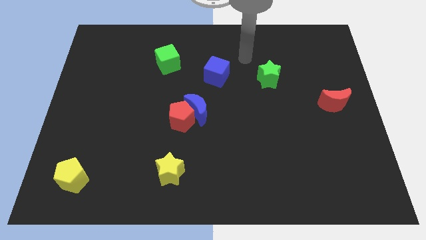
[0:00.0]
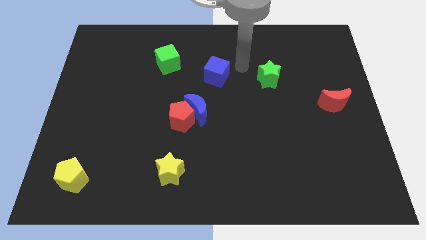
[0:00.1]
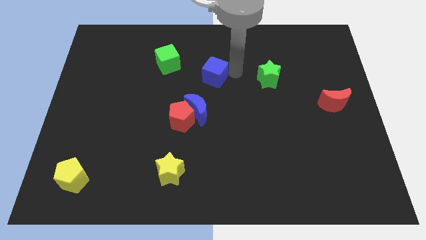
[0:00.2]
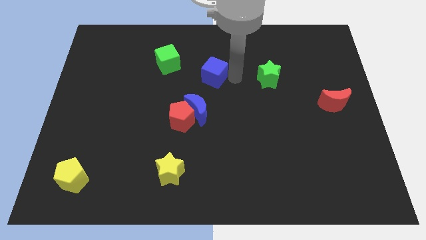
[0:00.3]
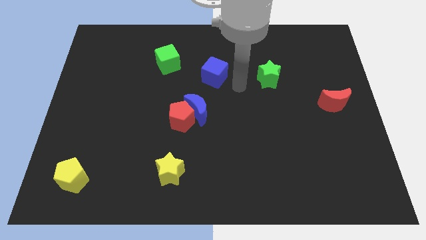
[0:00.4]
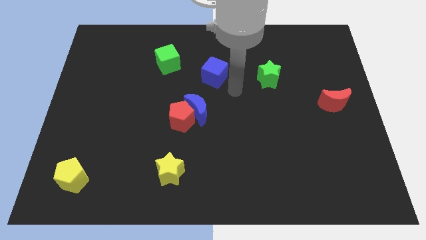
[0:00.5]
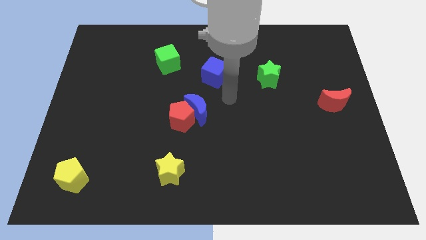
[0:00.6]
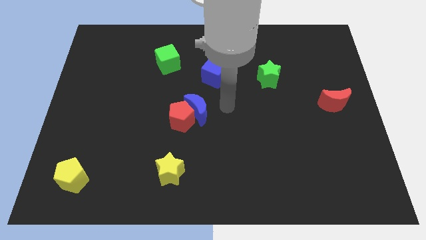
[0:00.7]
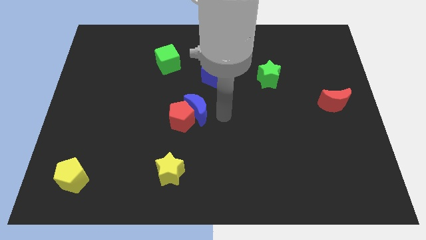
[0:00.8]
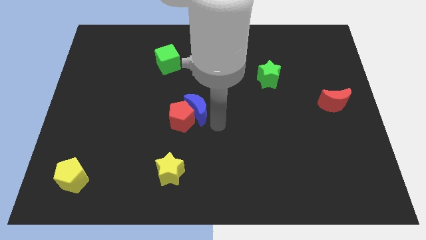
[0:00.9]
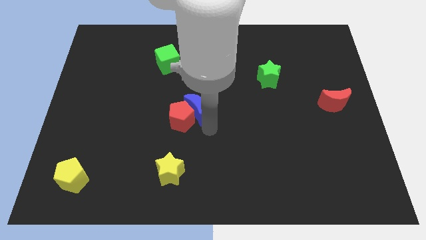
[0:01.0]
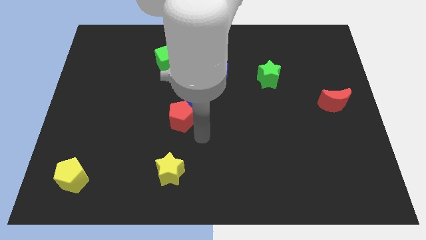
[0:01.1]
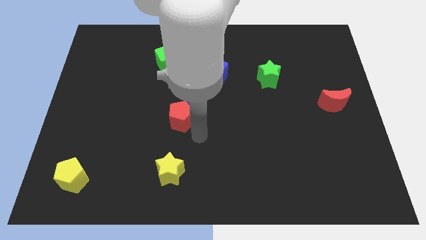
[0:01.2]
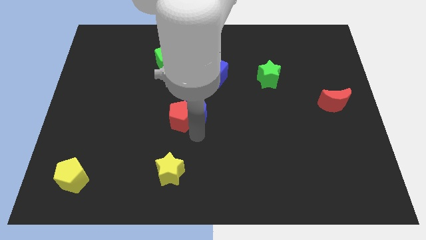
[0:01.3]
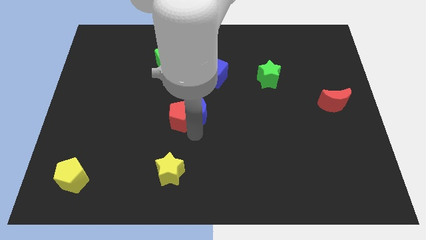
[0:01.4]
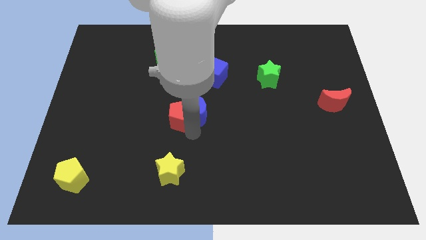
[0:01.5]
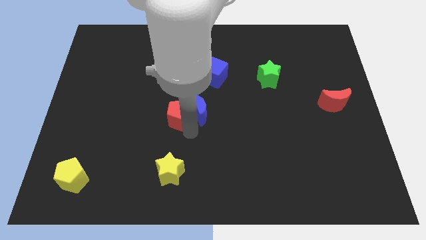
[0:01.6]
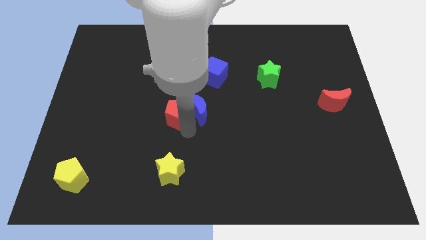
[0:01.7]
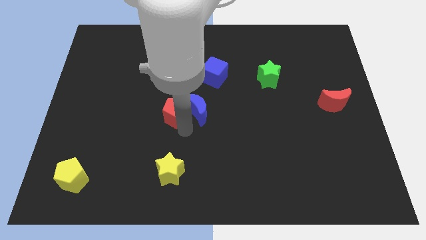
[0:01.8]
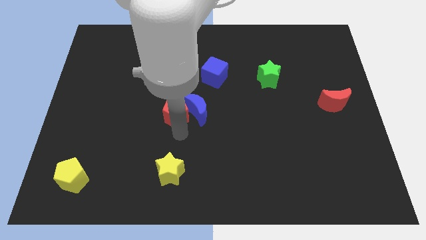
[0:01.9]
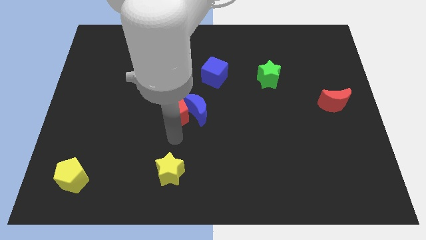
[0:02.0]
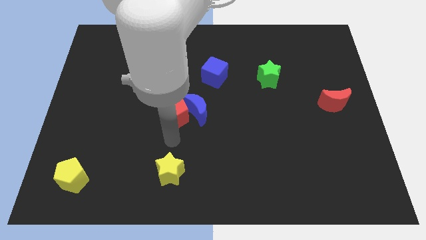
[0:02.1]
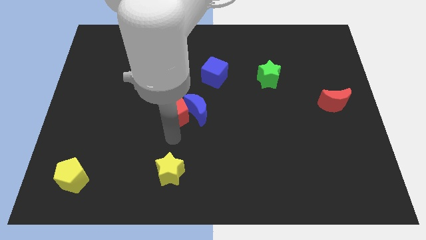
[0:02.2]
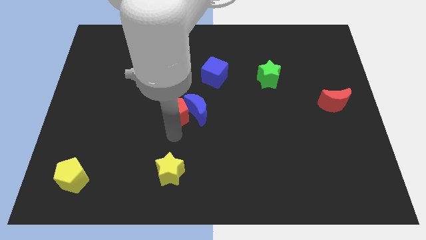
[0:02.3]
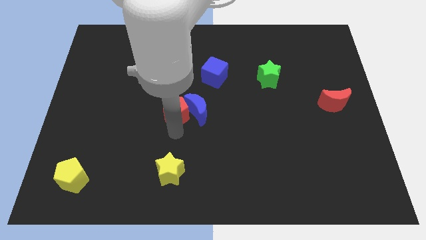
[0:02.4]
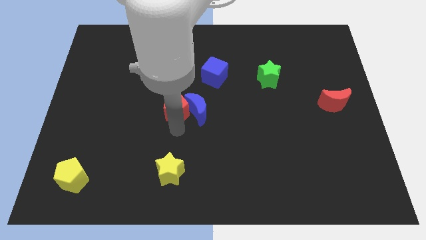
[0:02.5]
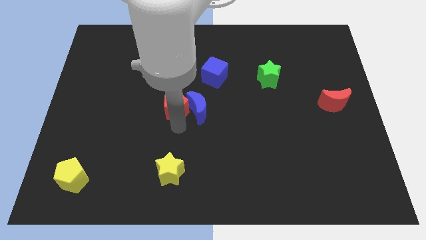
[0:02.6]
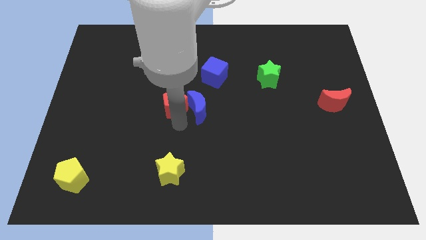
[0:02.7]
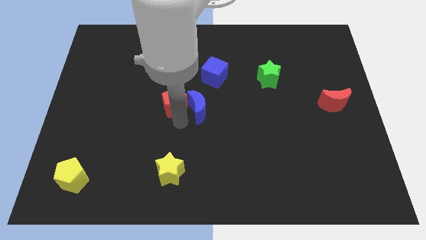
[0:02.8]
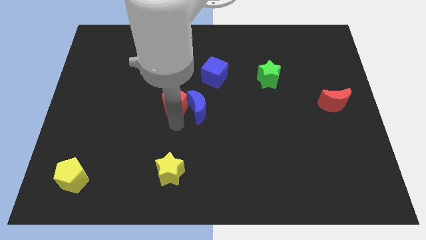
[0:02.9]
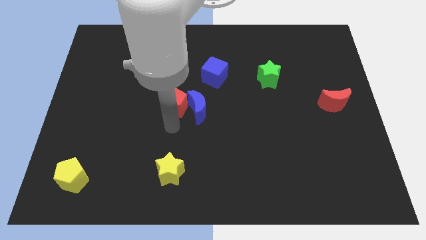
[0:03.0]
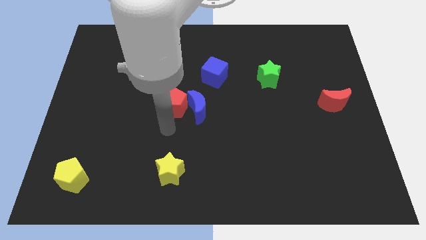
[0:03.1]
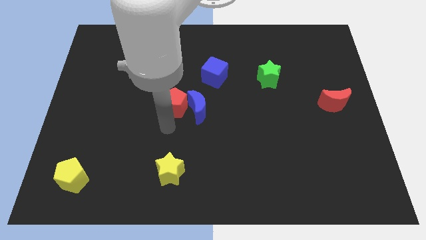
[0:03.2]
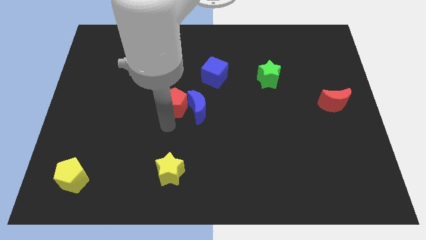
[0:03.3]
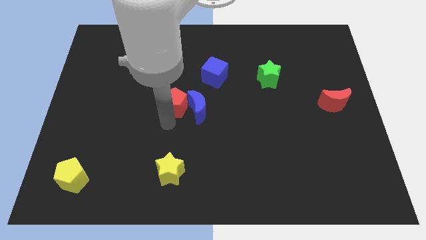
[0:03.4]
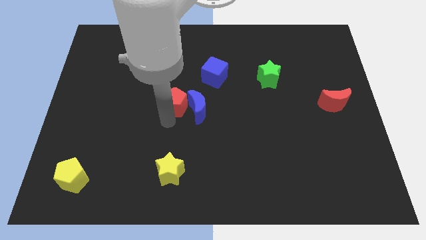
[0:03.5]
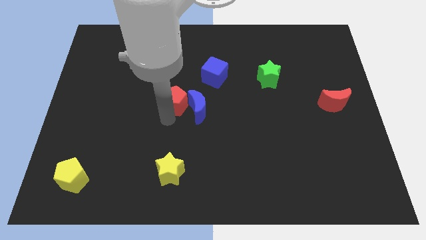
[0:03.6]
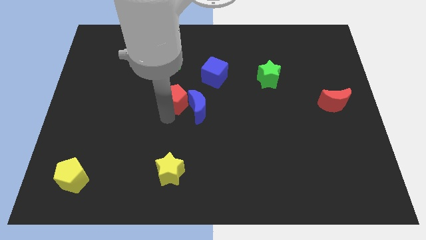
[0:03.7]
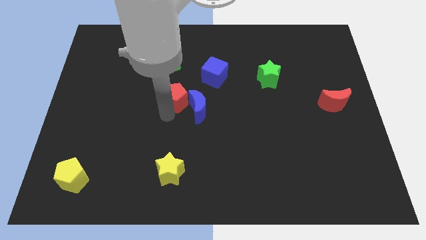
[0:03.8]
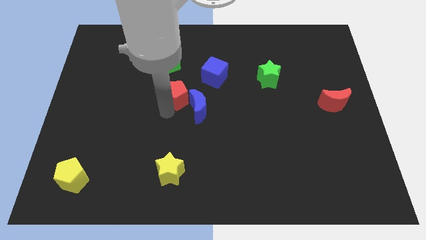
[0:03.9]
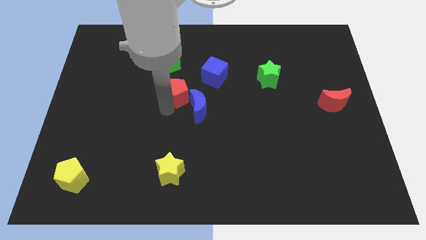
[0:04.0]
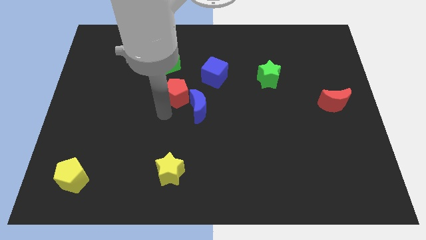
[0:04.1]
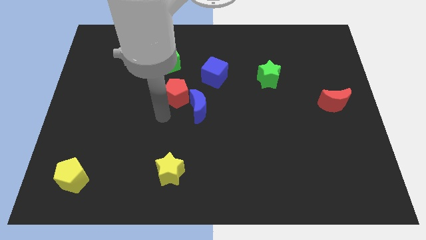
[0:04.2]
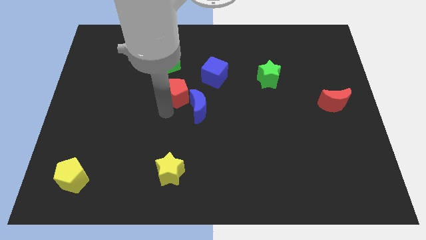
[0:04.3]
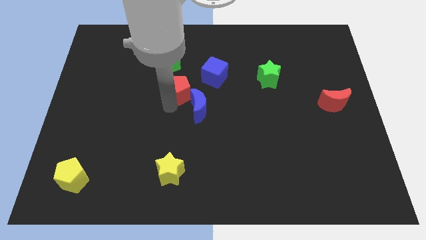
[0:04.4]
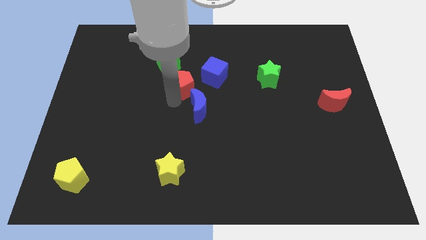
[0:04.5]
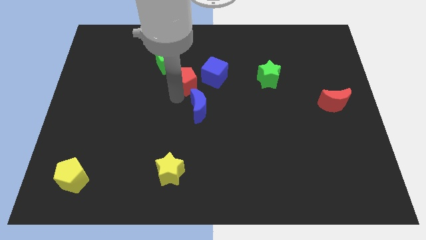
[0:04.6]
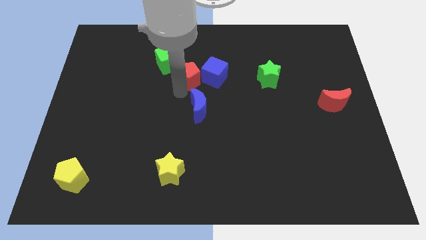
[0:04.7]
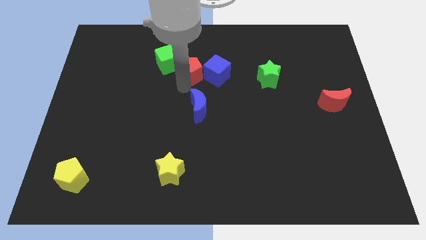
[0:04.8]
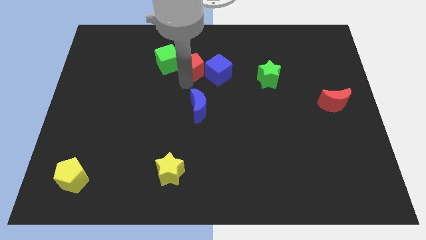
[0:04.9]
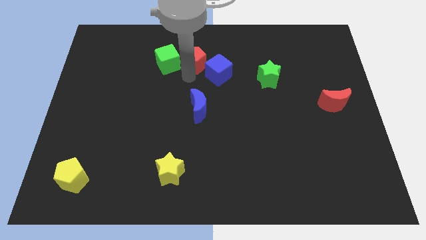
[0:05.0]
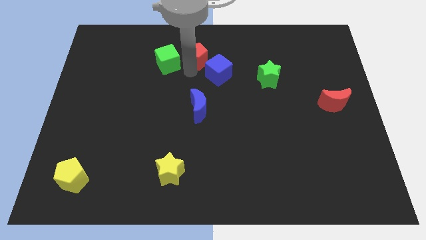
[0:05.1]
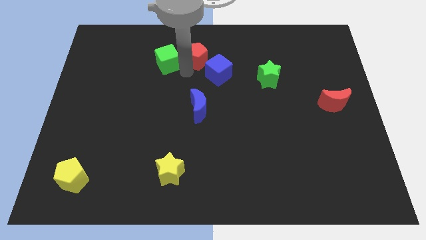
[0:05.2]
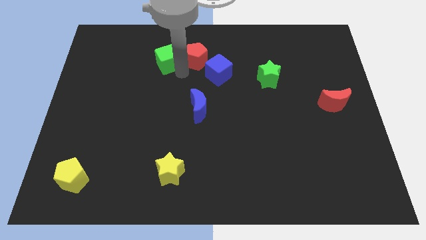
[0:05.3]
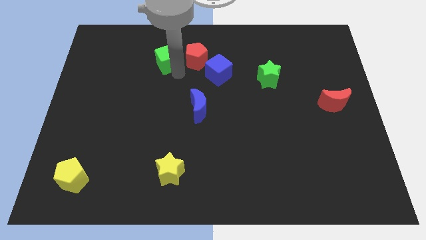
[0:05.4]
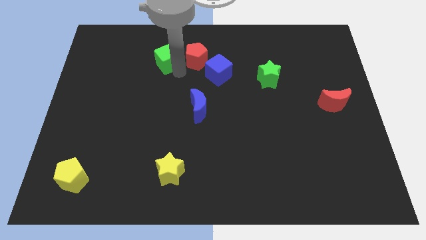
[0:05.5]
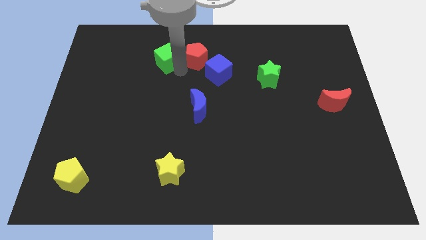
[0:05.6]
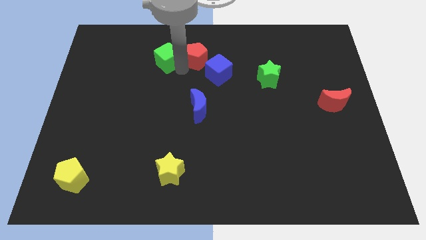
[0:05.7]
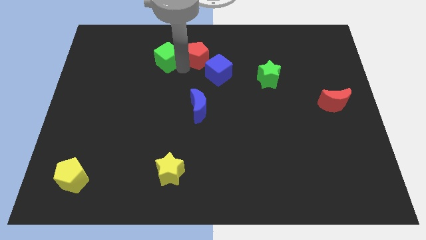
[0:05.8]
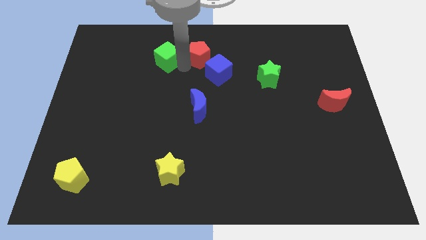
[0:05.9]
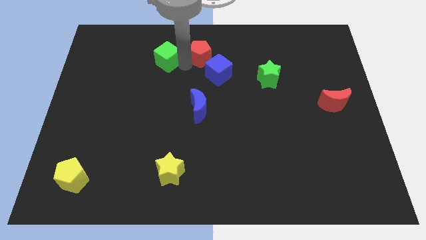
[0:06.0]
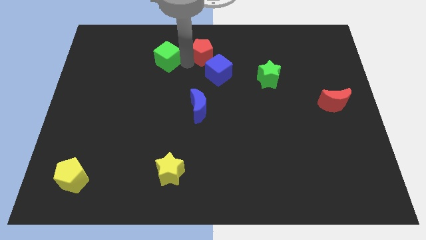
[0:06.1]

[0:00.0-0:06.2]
put the red pentagon to the towards your base

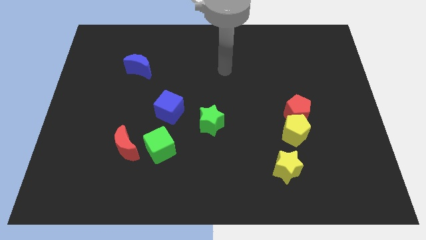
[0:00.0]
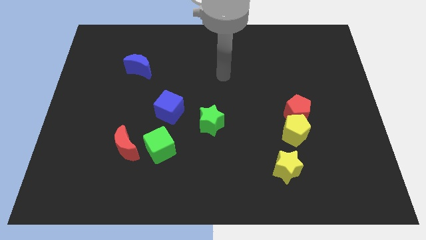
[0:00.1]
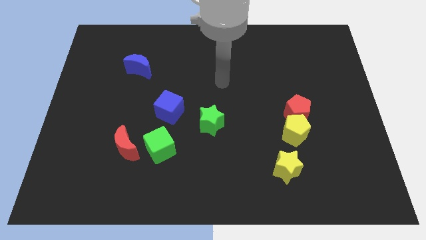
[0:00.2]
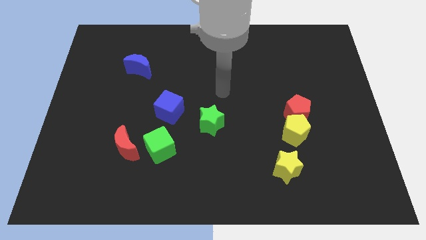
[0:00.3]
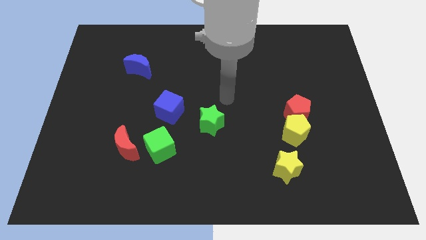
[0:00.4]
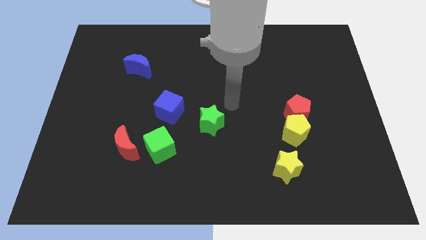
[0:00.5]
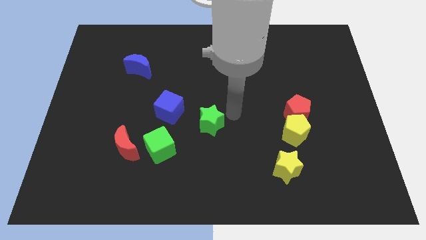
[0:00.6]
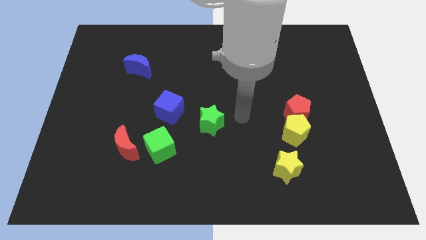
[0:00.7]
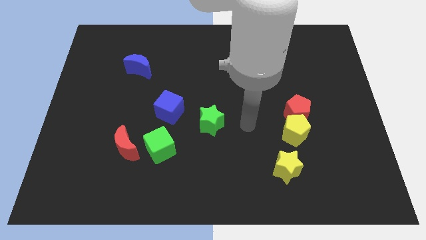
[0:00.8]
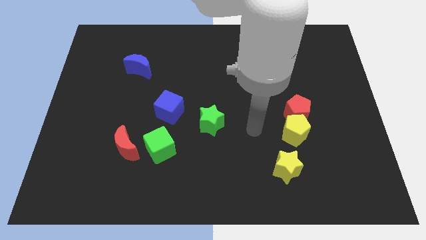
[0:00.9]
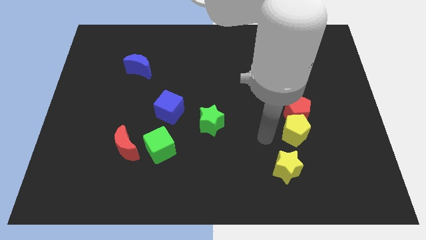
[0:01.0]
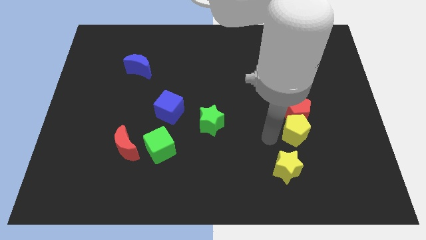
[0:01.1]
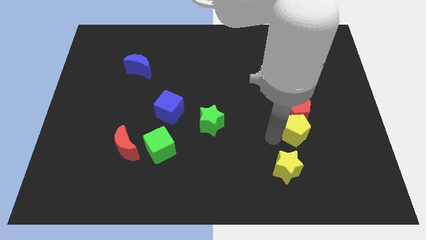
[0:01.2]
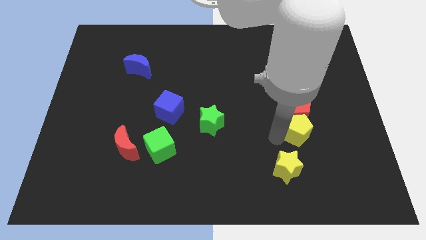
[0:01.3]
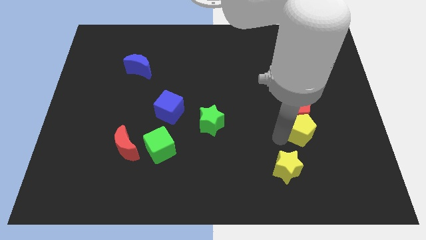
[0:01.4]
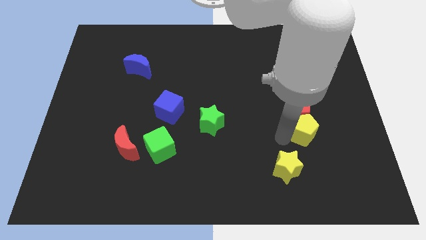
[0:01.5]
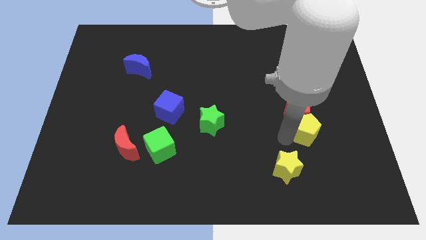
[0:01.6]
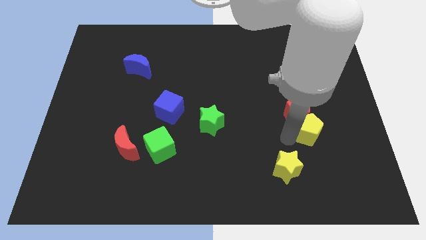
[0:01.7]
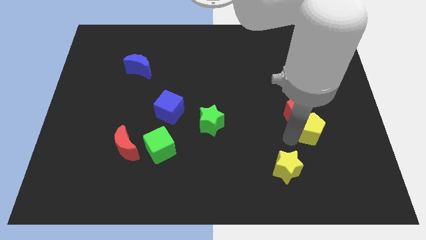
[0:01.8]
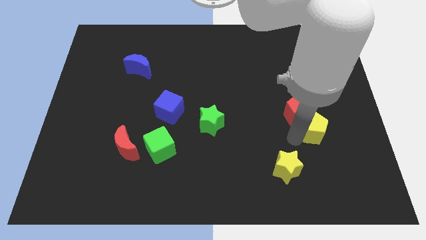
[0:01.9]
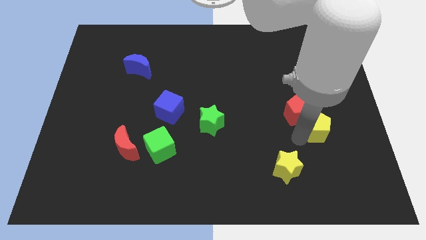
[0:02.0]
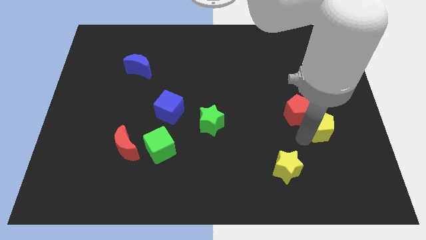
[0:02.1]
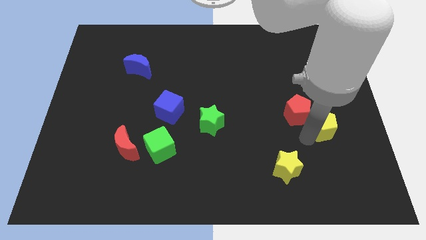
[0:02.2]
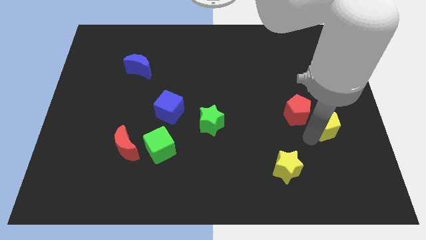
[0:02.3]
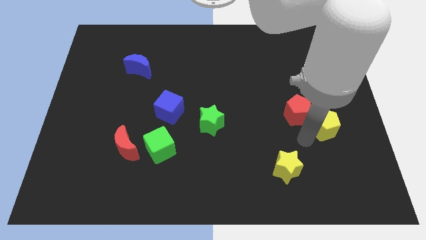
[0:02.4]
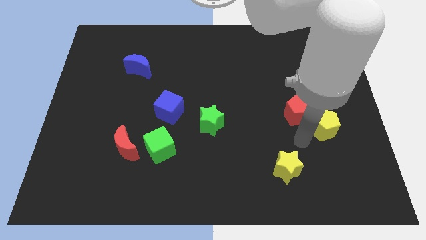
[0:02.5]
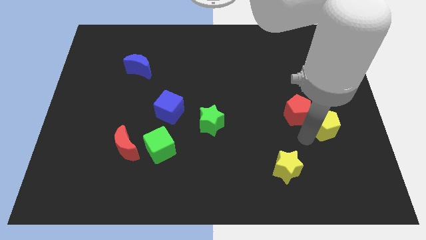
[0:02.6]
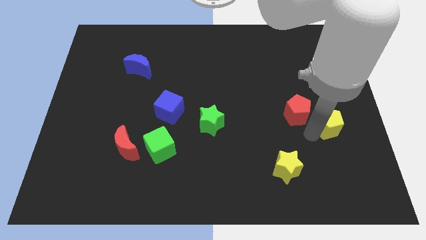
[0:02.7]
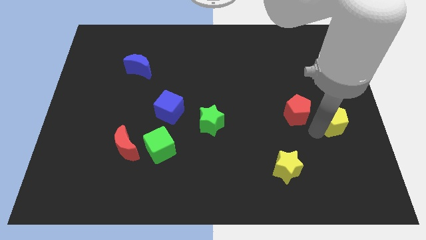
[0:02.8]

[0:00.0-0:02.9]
slide the yellow pentagon to the right side of the board
